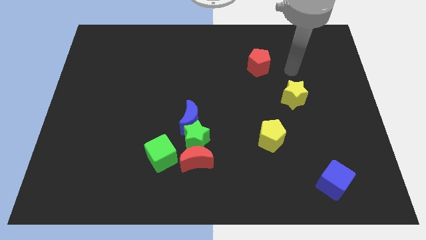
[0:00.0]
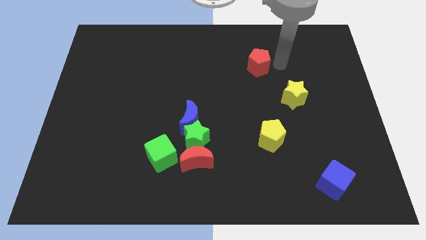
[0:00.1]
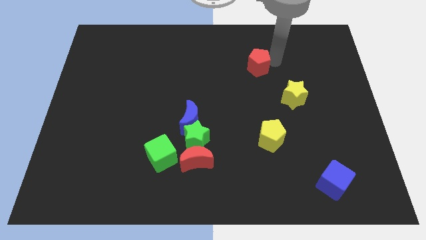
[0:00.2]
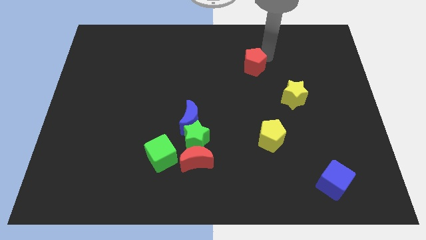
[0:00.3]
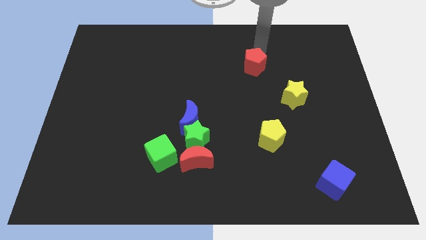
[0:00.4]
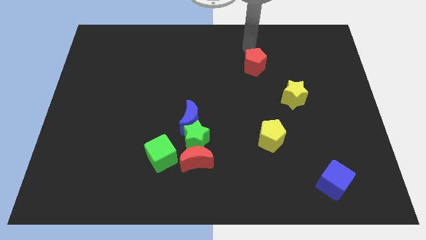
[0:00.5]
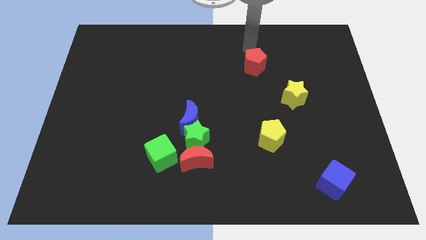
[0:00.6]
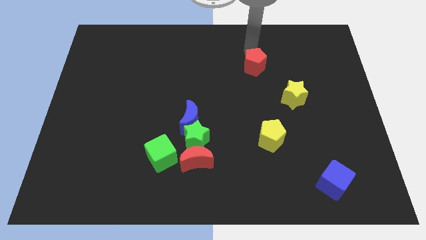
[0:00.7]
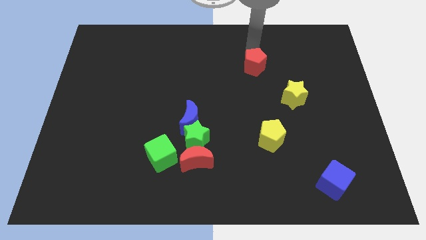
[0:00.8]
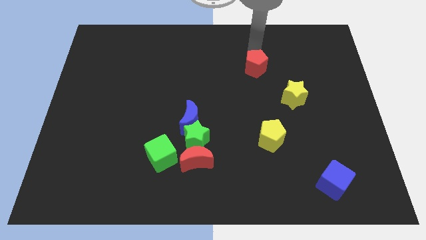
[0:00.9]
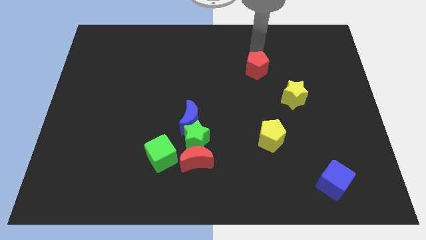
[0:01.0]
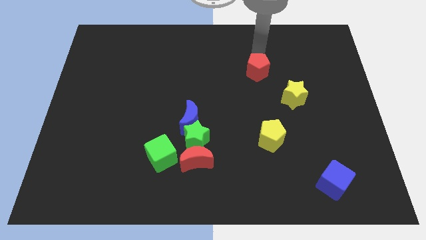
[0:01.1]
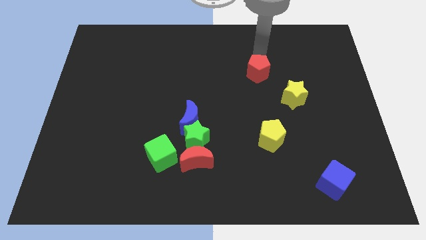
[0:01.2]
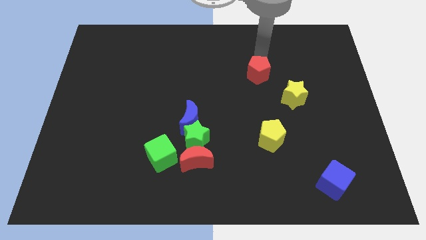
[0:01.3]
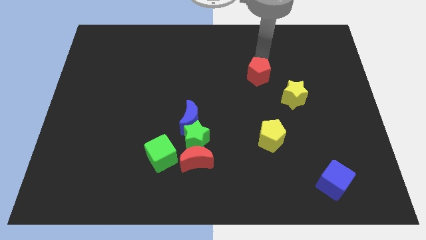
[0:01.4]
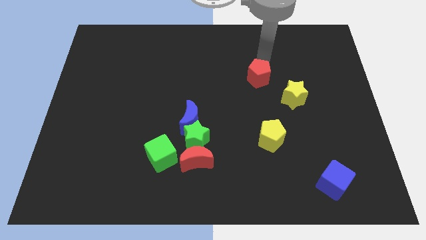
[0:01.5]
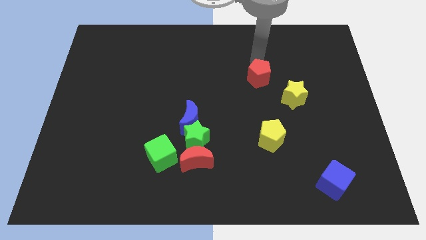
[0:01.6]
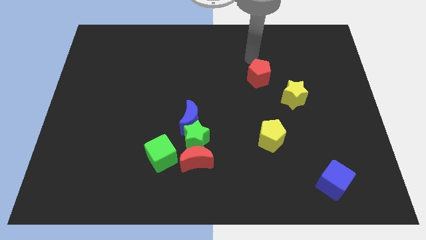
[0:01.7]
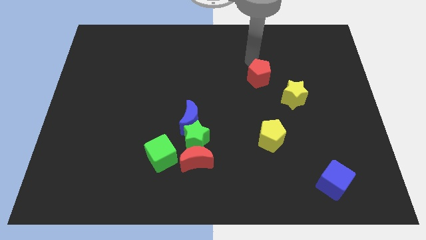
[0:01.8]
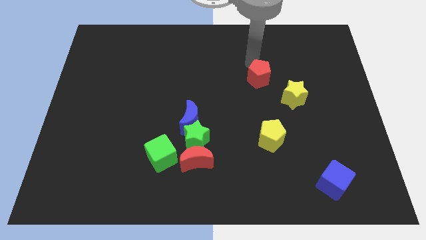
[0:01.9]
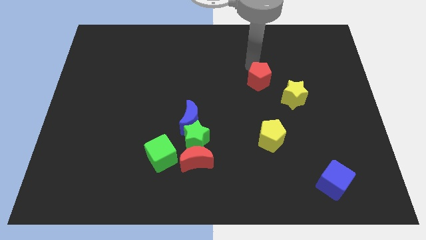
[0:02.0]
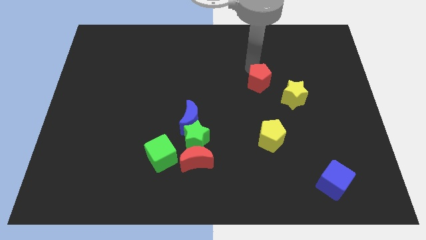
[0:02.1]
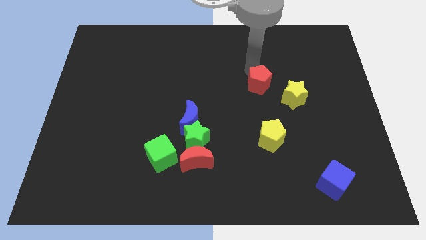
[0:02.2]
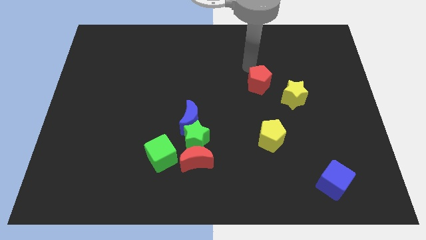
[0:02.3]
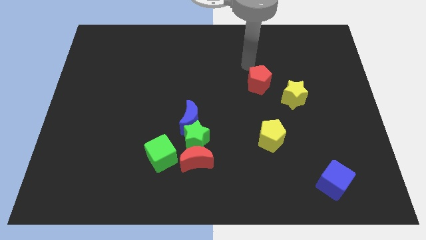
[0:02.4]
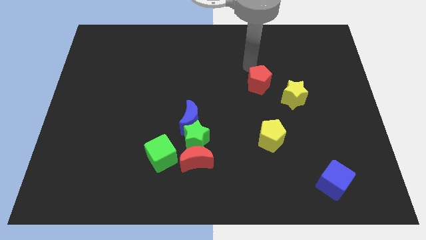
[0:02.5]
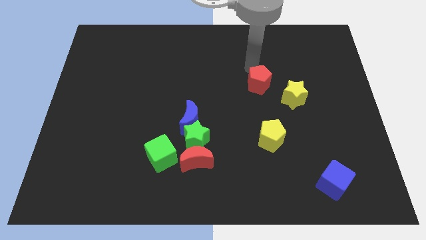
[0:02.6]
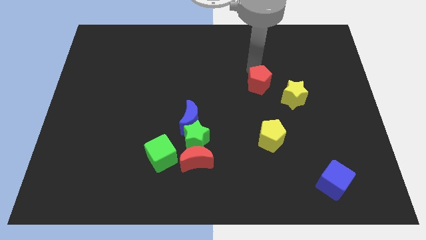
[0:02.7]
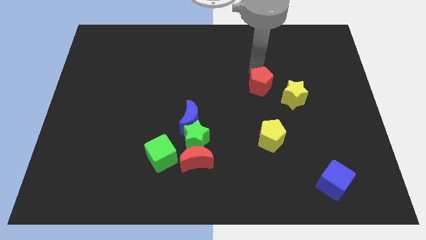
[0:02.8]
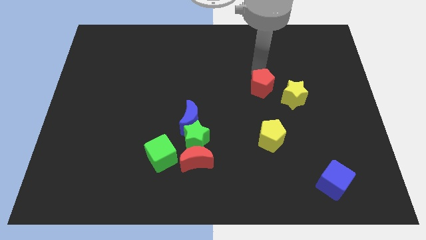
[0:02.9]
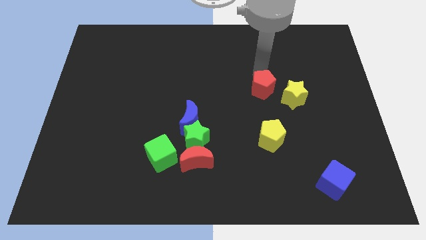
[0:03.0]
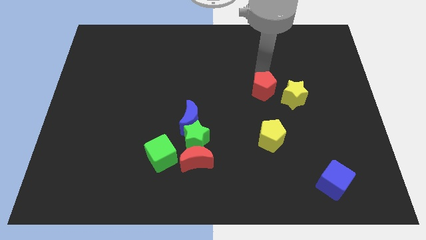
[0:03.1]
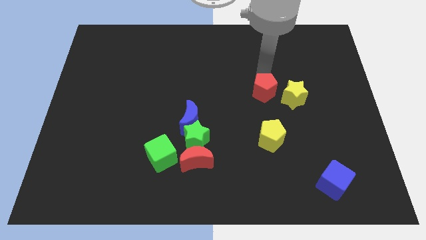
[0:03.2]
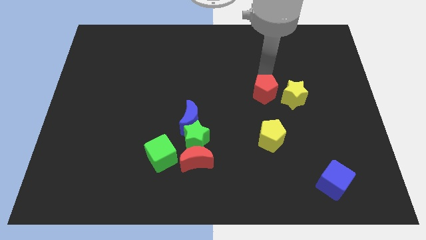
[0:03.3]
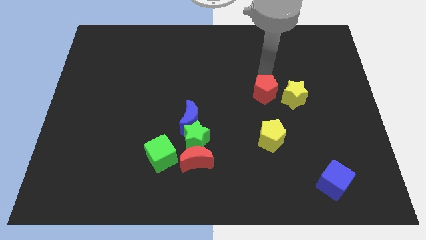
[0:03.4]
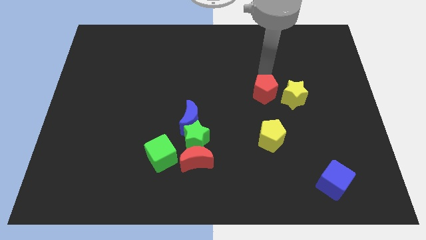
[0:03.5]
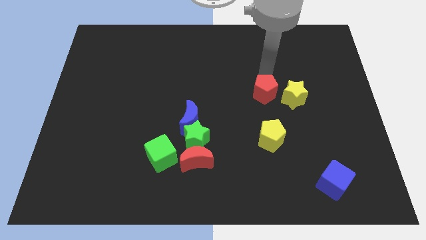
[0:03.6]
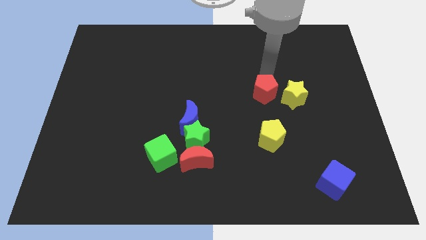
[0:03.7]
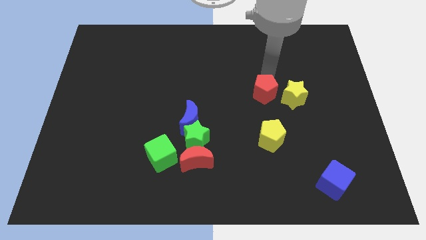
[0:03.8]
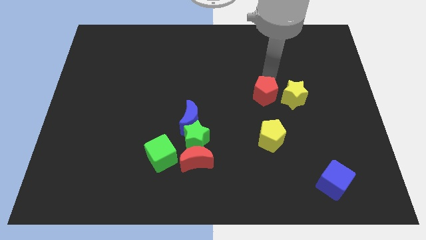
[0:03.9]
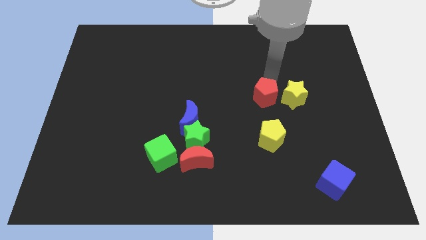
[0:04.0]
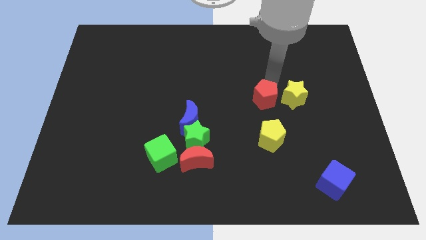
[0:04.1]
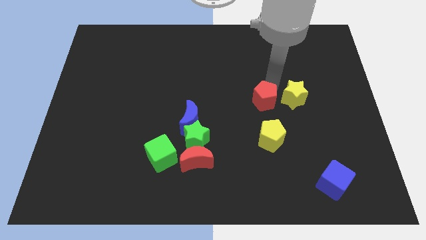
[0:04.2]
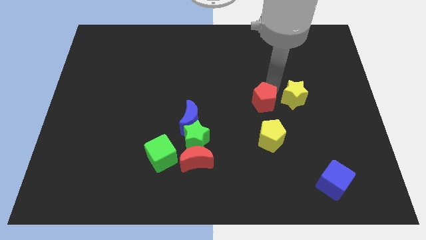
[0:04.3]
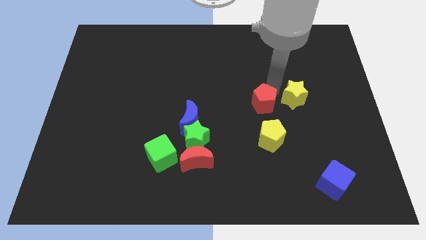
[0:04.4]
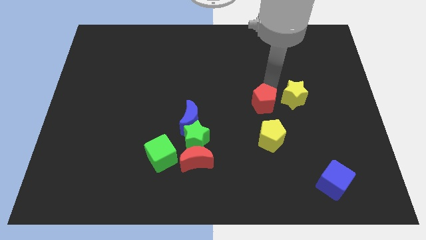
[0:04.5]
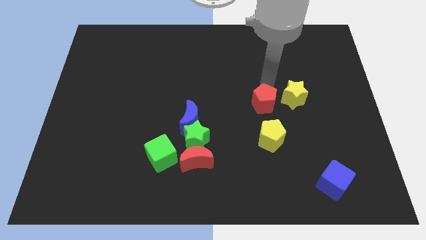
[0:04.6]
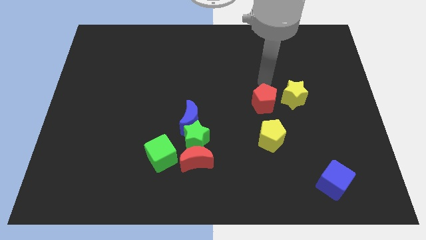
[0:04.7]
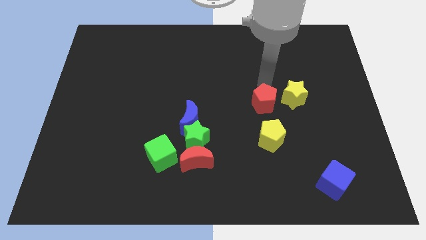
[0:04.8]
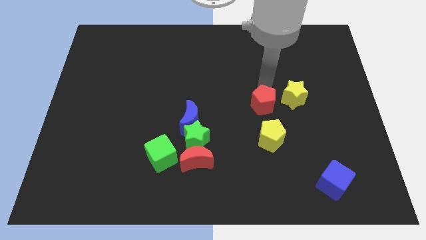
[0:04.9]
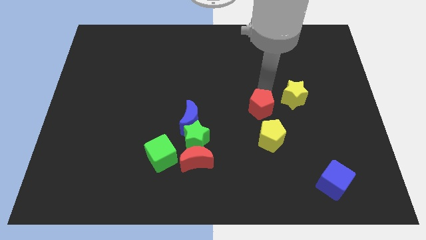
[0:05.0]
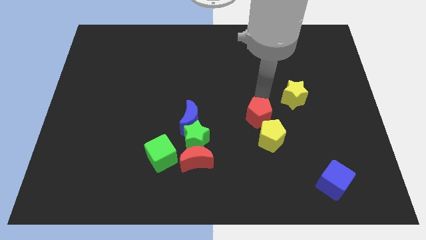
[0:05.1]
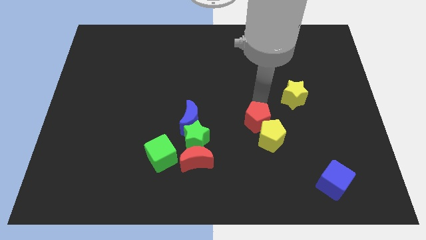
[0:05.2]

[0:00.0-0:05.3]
slide the red pentagon next to the yellow pentagon
